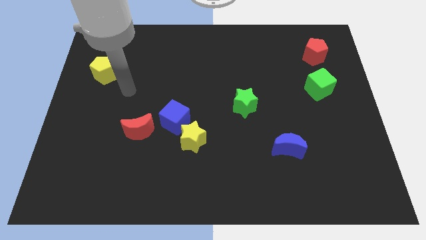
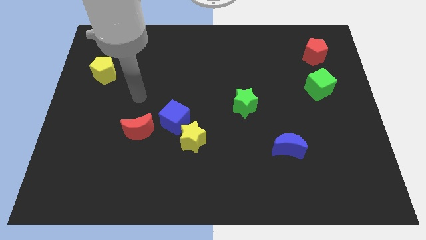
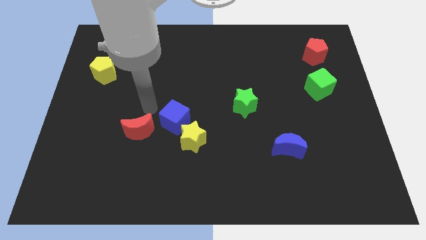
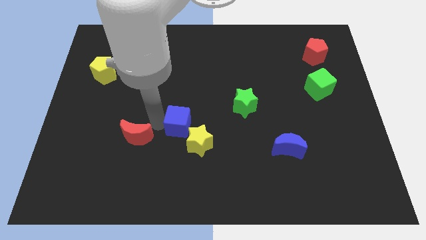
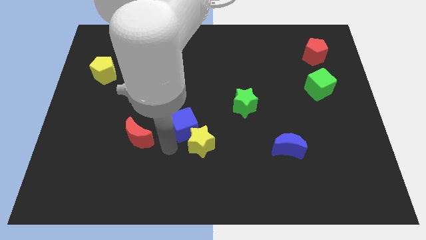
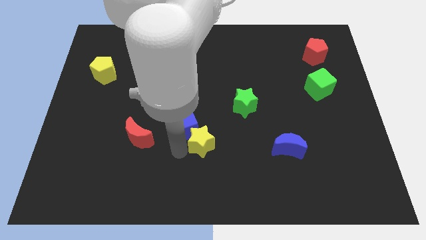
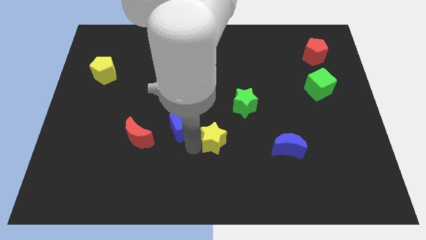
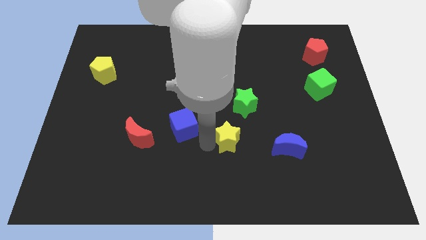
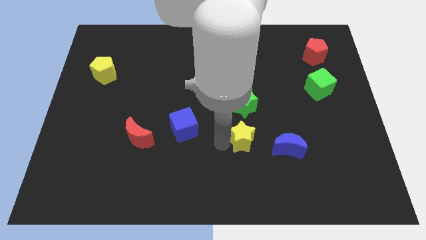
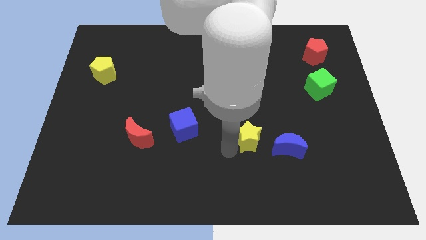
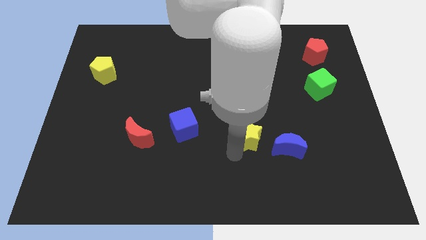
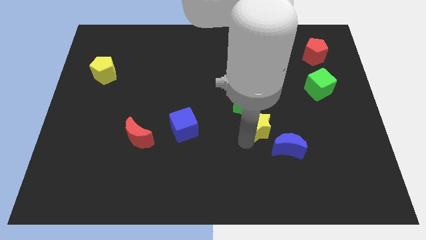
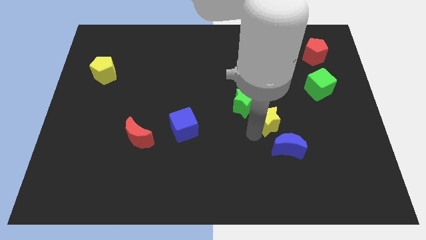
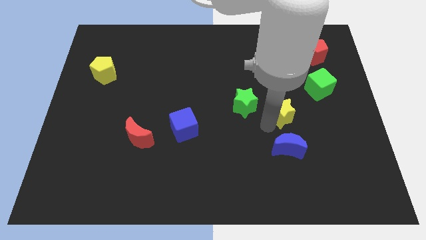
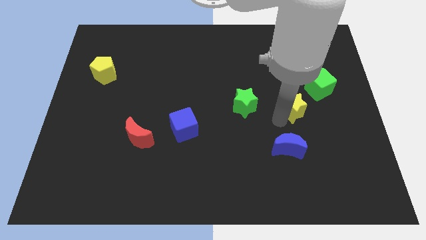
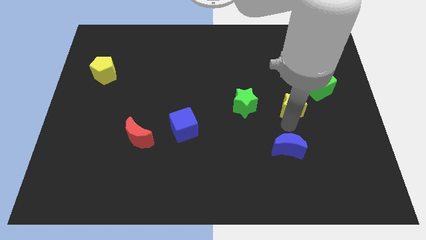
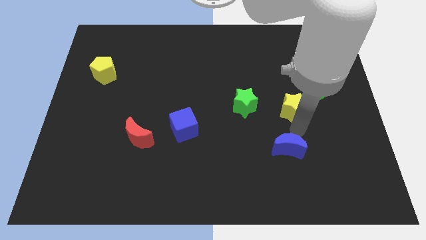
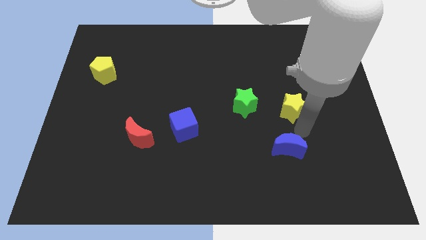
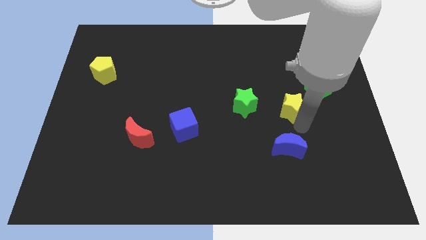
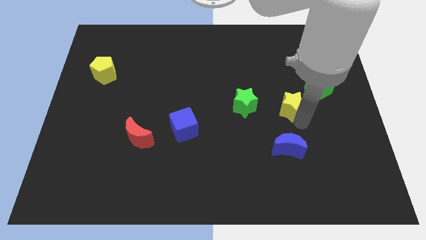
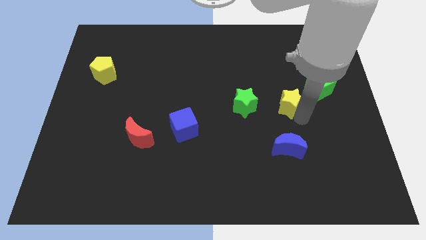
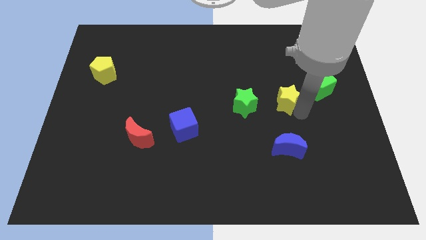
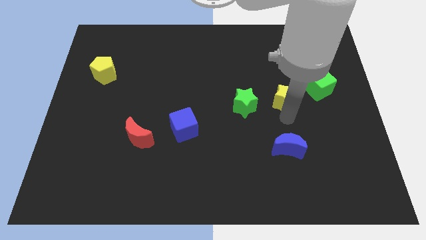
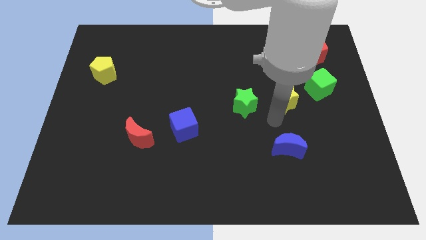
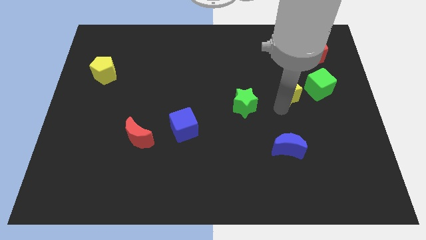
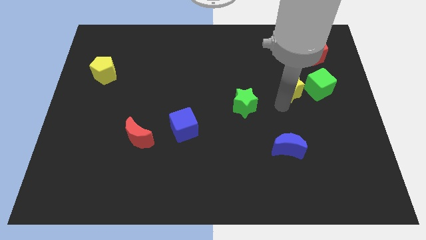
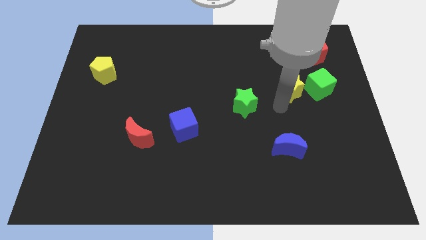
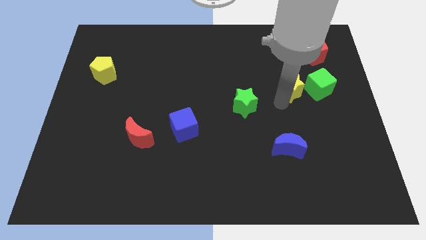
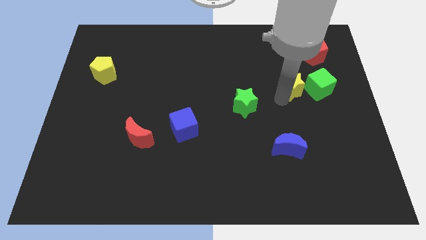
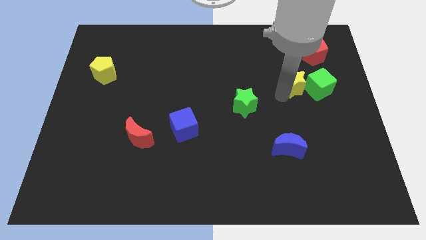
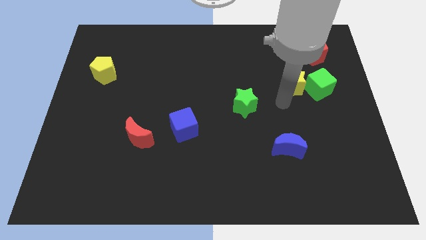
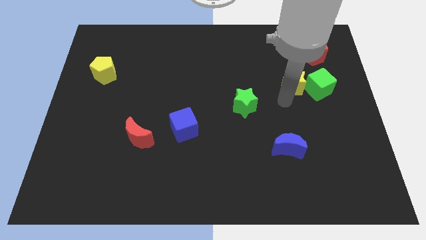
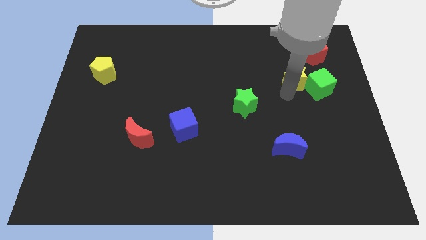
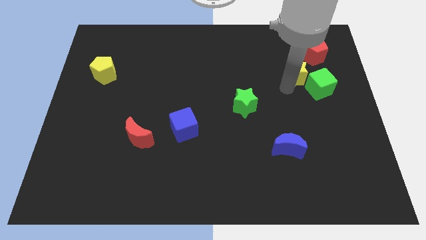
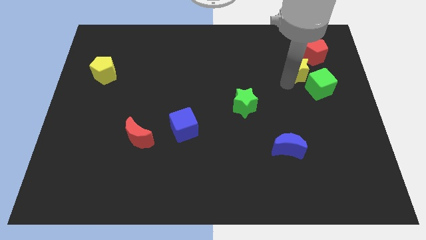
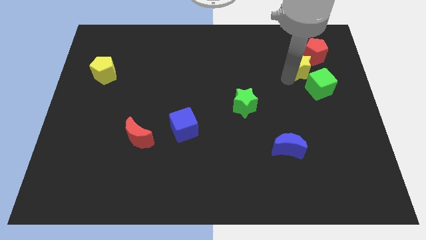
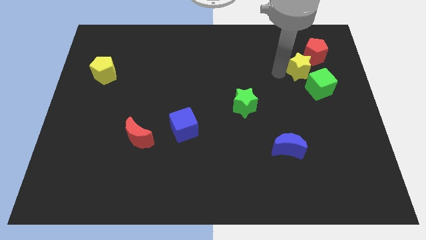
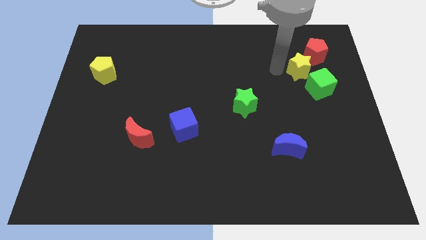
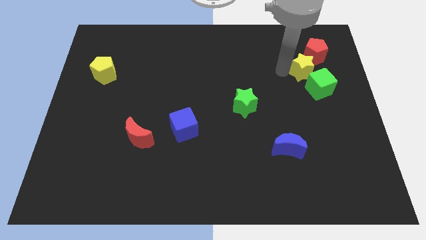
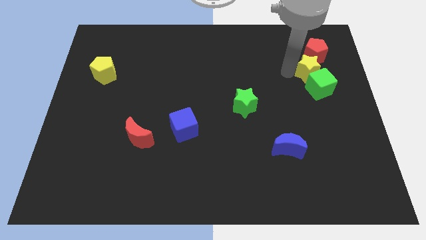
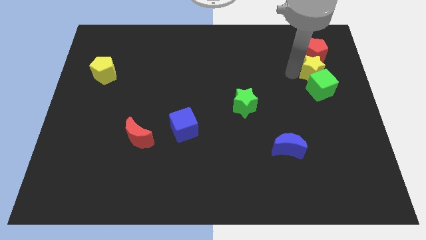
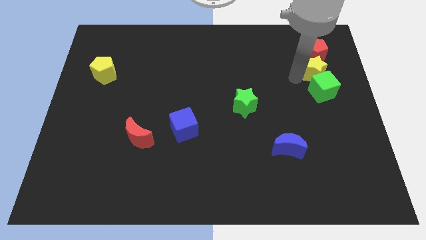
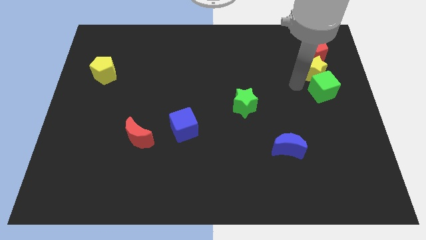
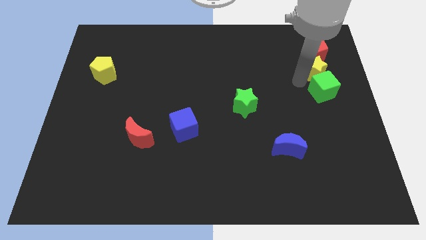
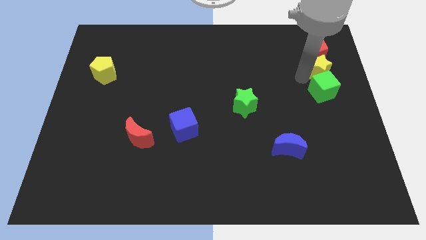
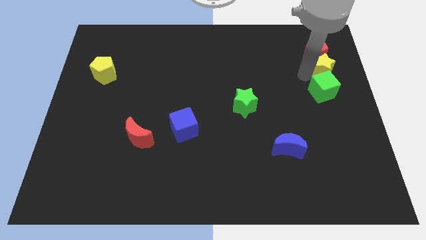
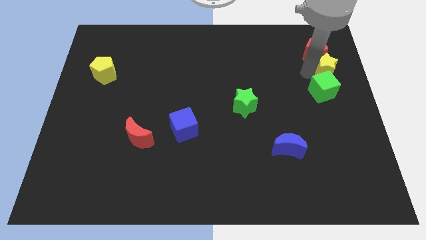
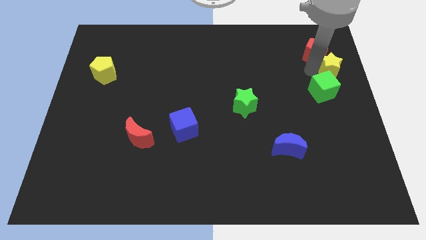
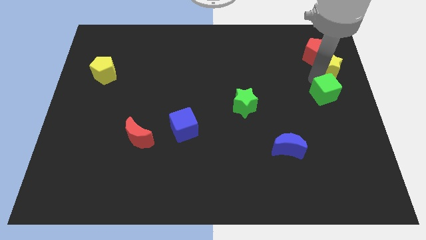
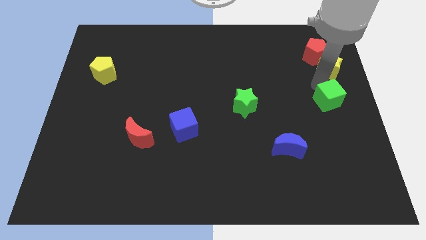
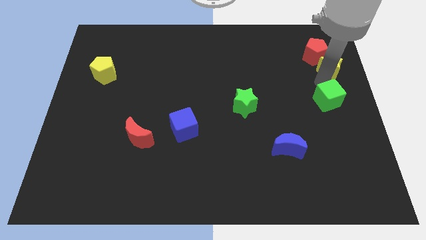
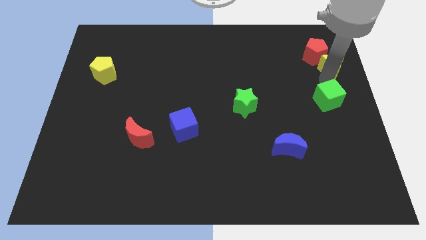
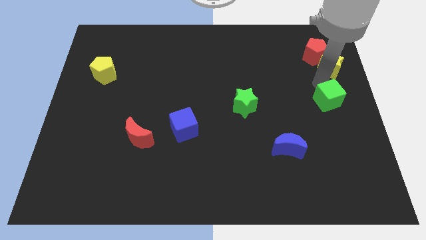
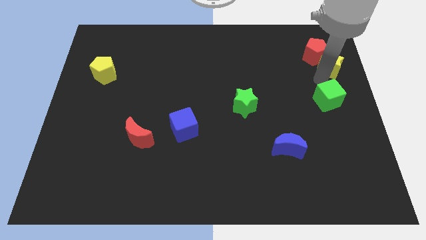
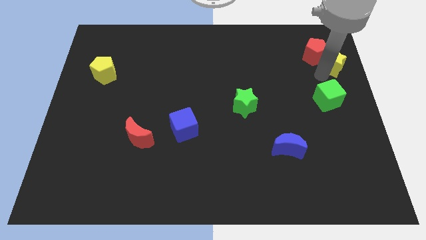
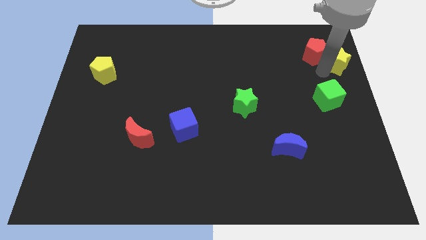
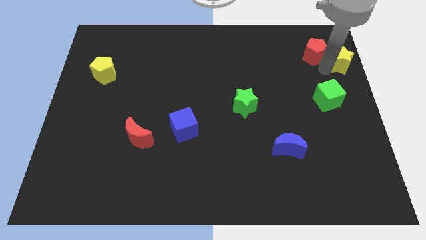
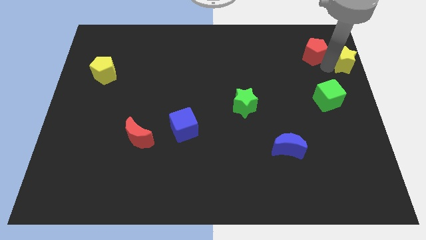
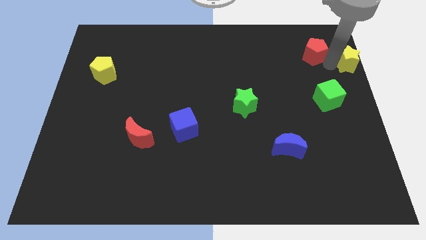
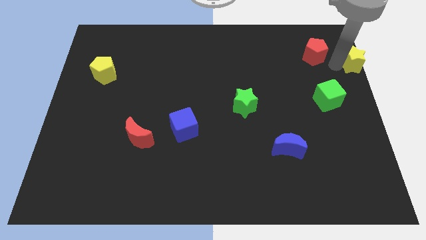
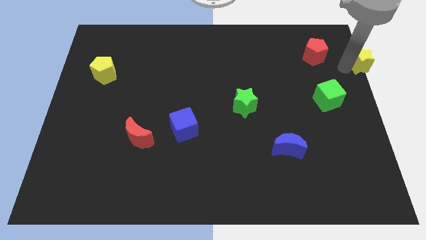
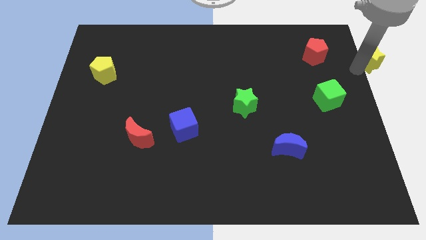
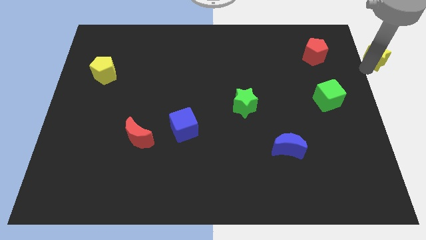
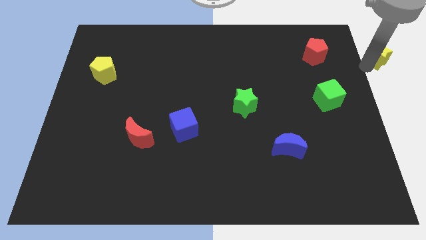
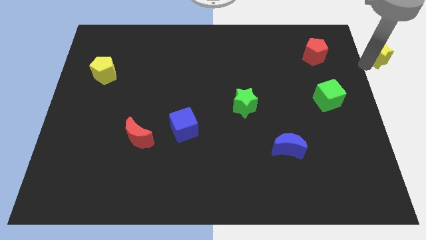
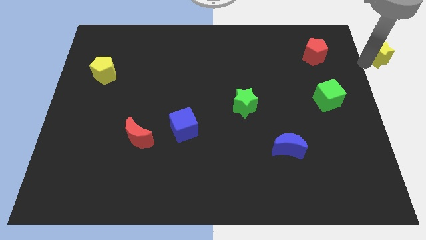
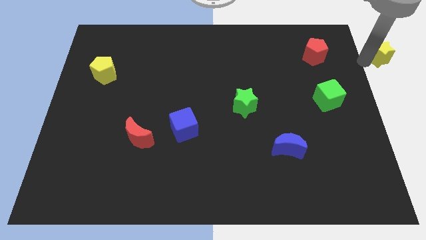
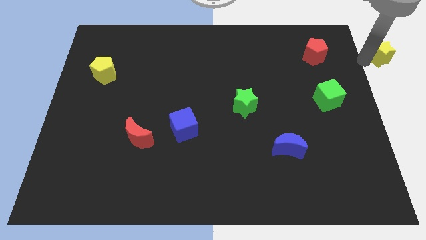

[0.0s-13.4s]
slide the yellow star to the top right
